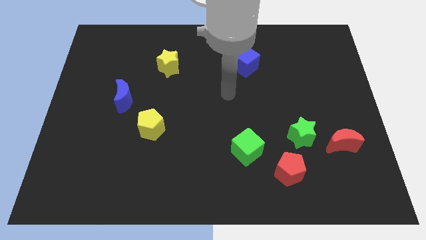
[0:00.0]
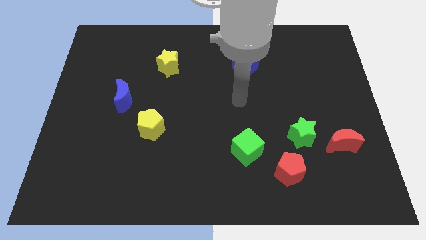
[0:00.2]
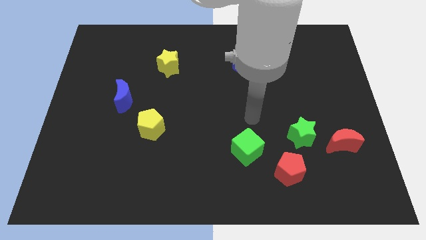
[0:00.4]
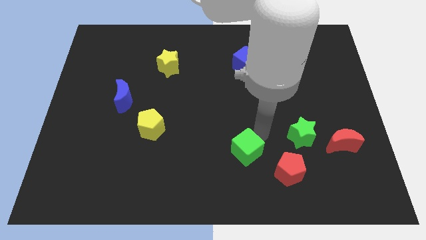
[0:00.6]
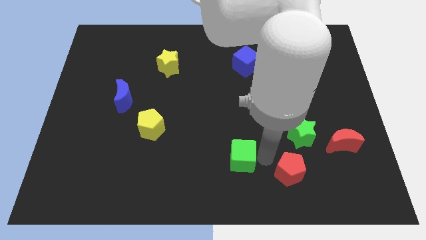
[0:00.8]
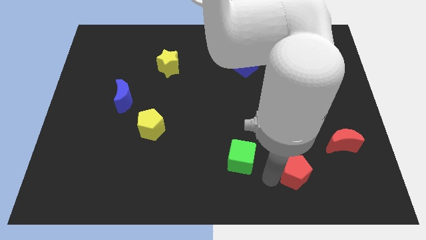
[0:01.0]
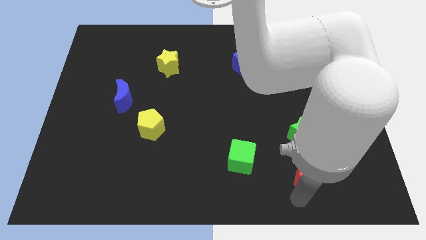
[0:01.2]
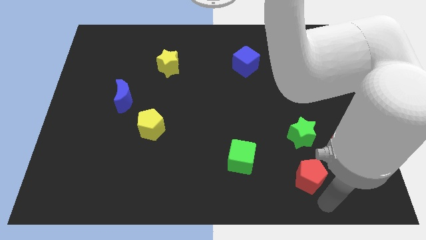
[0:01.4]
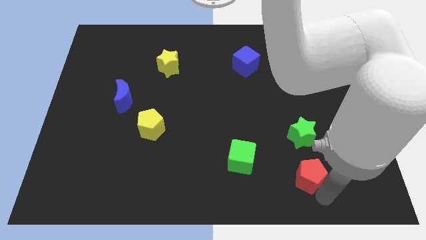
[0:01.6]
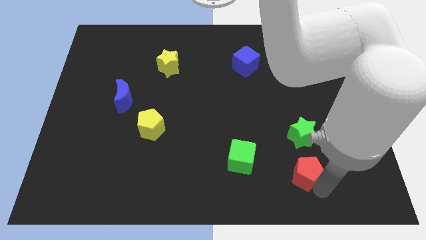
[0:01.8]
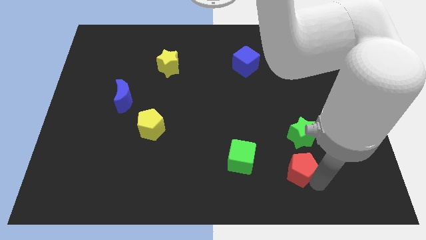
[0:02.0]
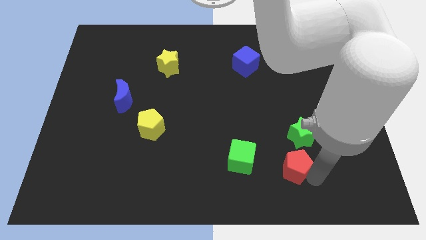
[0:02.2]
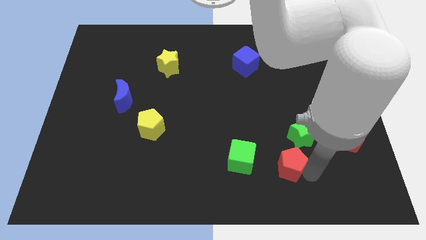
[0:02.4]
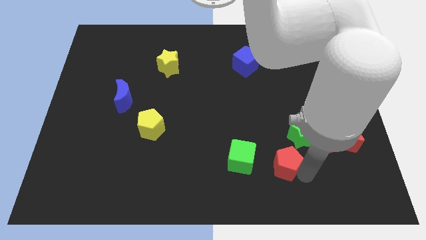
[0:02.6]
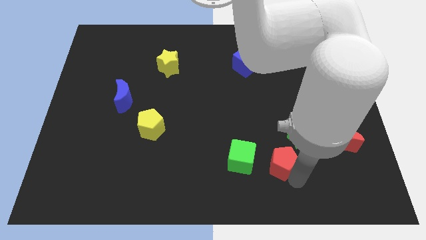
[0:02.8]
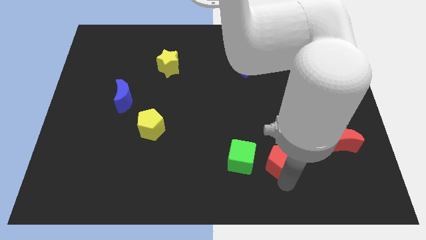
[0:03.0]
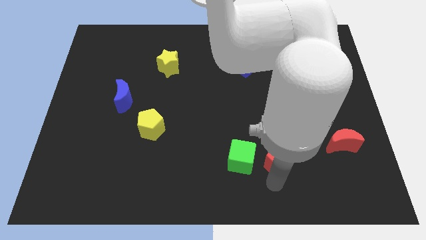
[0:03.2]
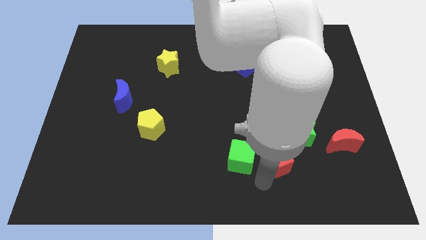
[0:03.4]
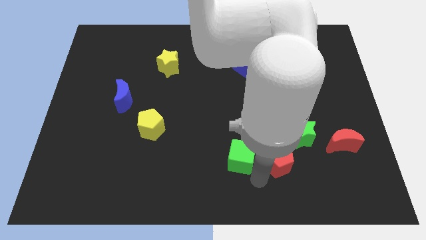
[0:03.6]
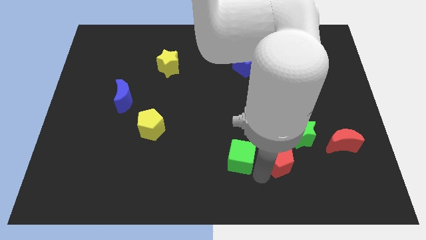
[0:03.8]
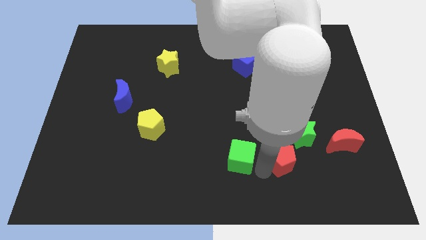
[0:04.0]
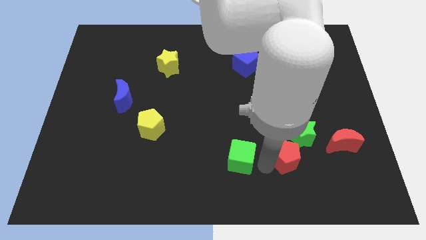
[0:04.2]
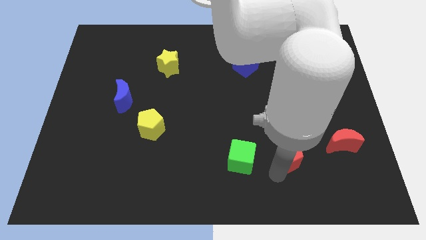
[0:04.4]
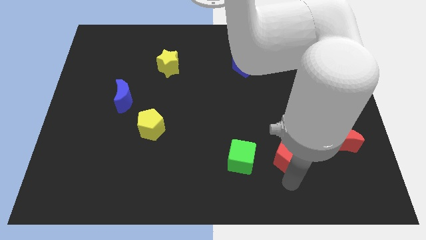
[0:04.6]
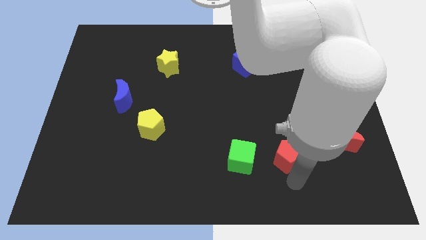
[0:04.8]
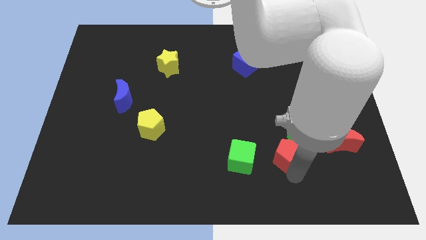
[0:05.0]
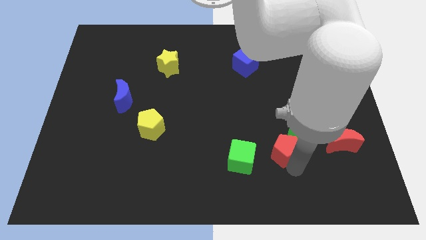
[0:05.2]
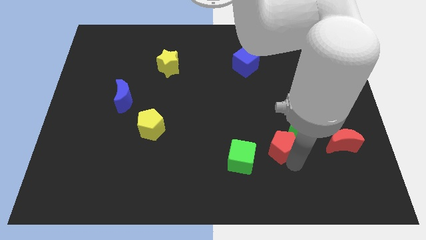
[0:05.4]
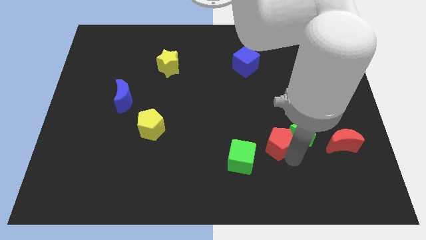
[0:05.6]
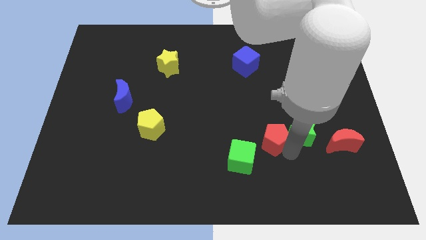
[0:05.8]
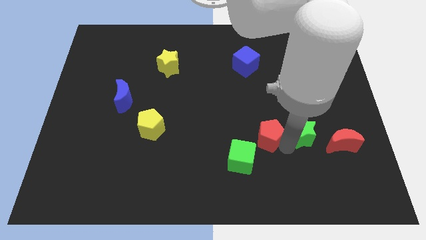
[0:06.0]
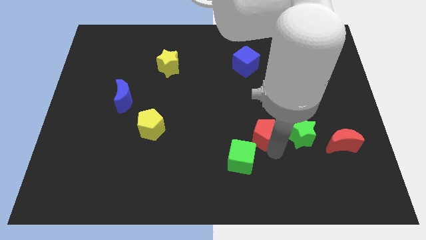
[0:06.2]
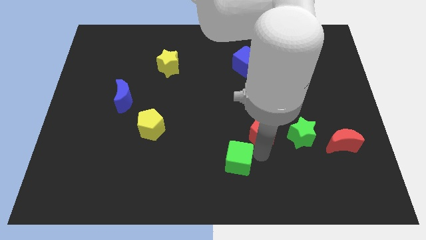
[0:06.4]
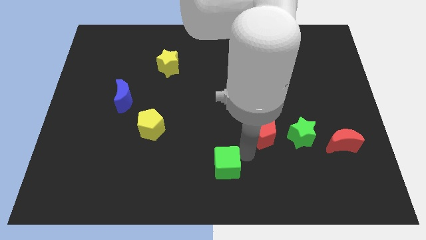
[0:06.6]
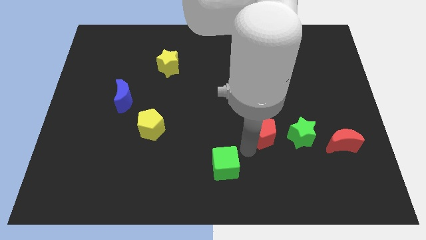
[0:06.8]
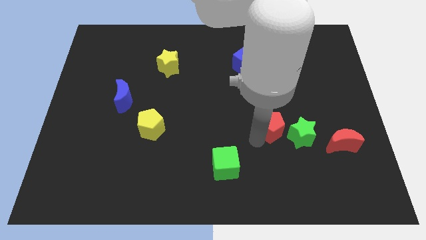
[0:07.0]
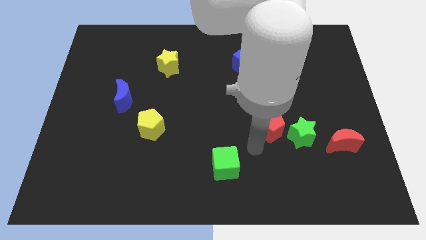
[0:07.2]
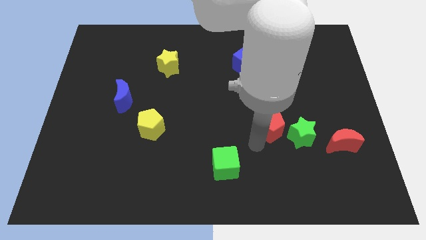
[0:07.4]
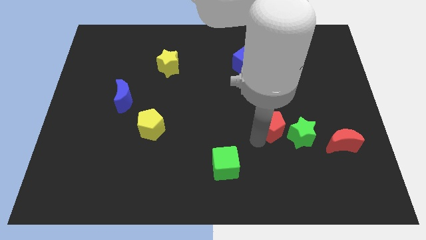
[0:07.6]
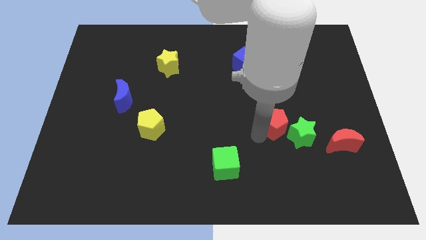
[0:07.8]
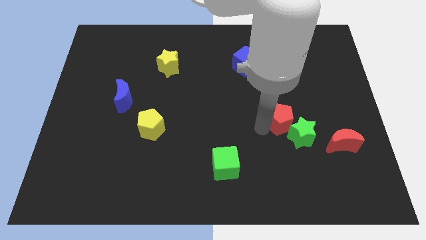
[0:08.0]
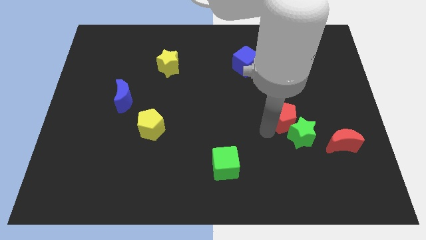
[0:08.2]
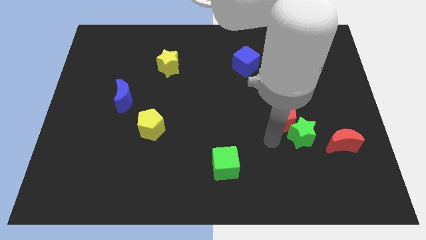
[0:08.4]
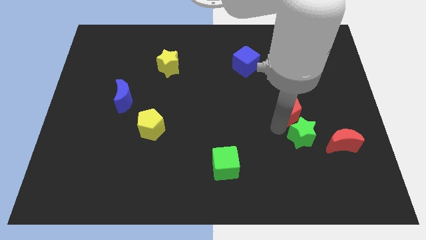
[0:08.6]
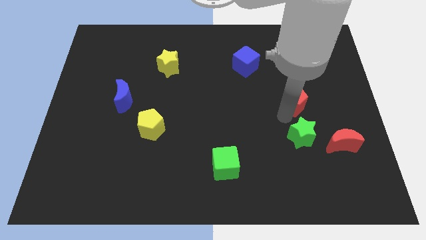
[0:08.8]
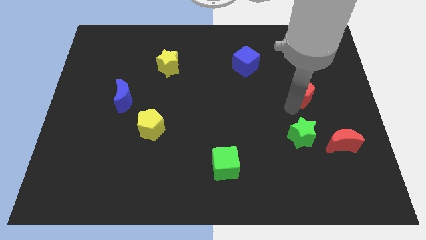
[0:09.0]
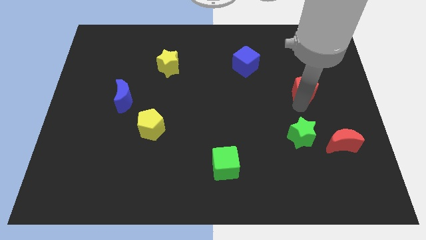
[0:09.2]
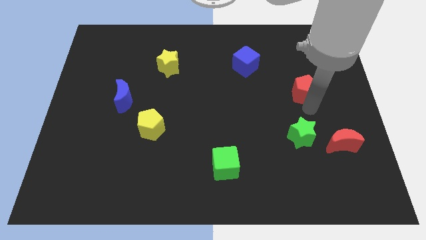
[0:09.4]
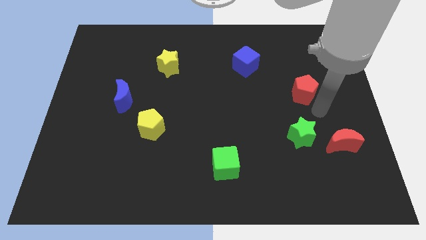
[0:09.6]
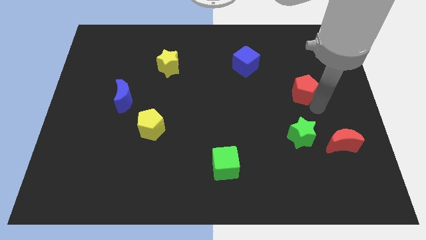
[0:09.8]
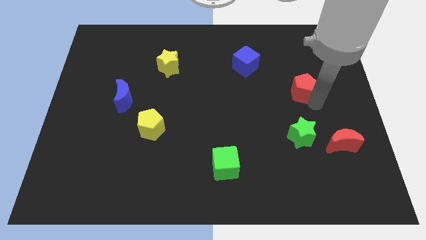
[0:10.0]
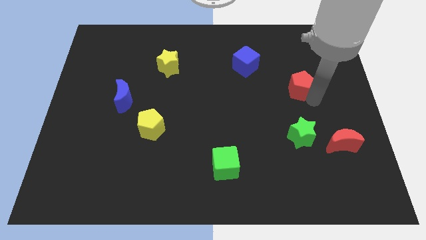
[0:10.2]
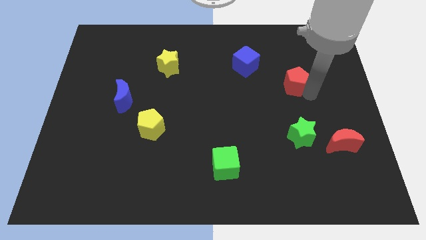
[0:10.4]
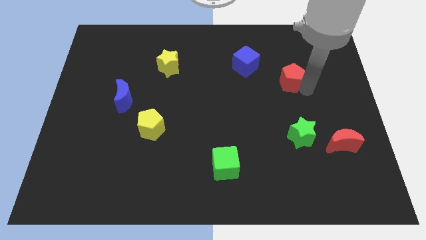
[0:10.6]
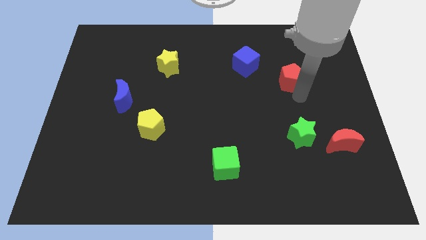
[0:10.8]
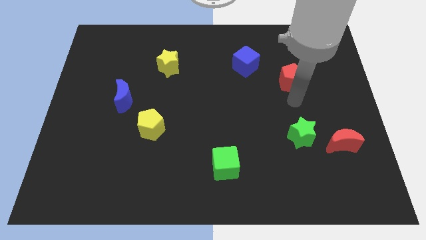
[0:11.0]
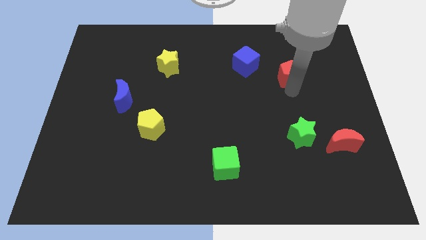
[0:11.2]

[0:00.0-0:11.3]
move the red pentagon just right of the blue cube

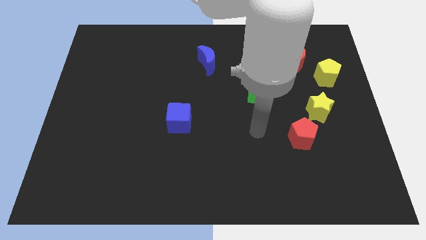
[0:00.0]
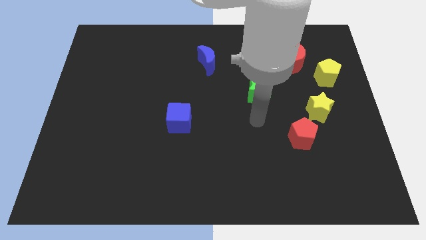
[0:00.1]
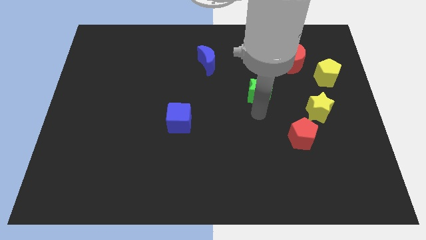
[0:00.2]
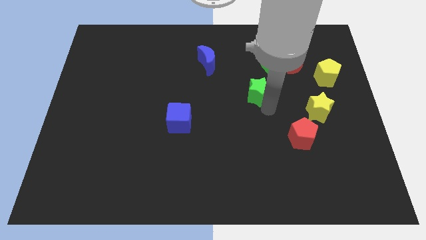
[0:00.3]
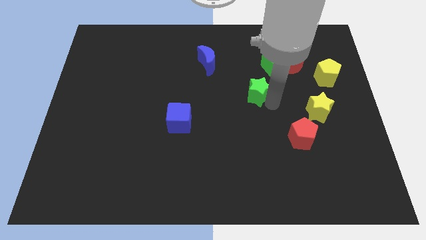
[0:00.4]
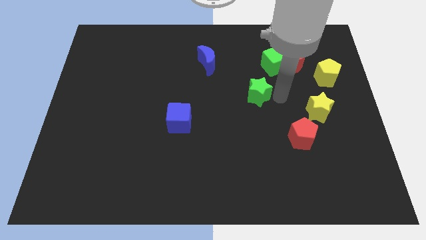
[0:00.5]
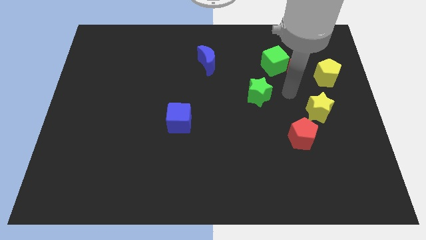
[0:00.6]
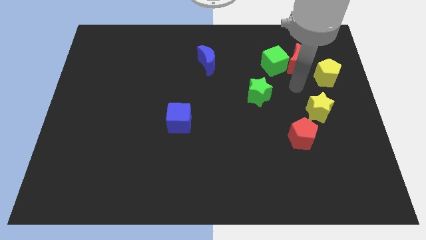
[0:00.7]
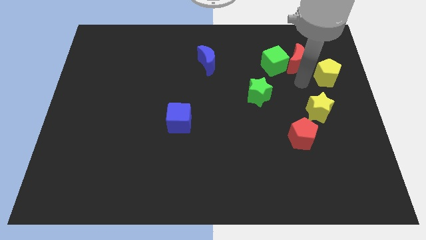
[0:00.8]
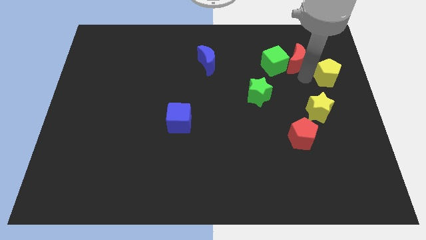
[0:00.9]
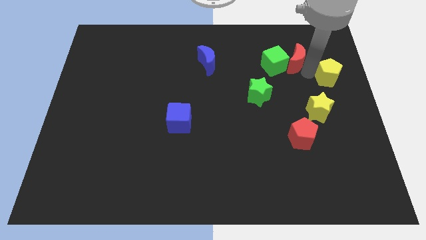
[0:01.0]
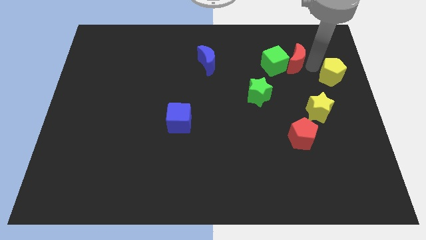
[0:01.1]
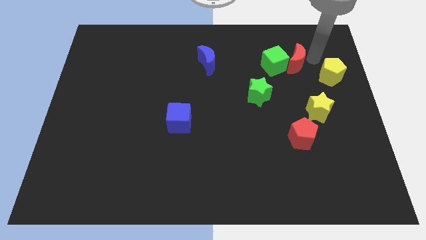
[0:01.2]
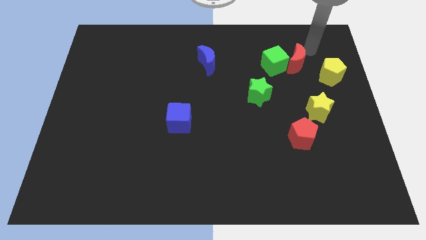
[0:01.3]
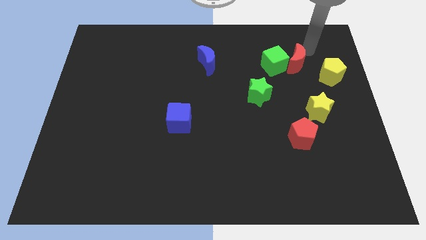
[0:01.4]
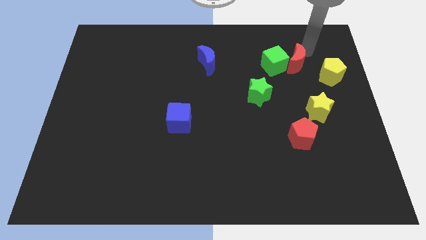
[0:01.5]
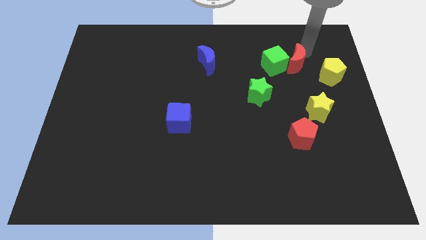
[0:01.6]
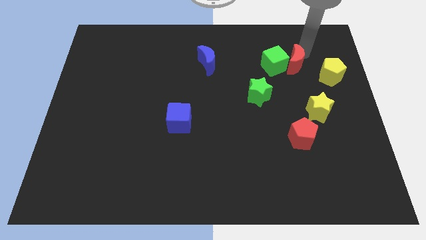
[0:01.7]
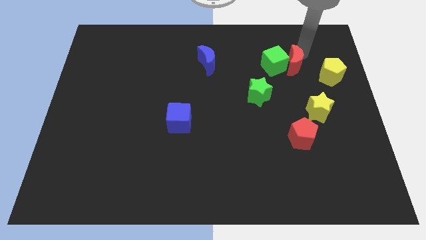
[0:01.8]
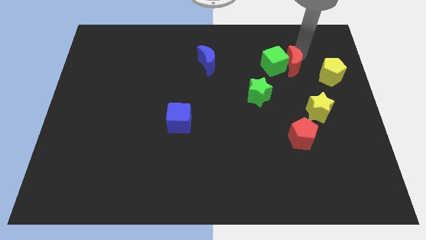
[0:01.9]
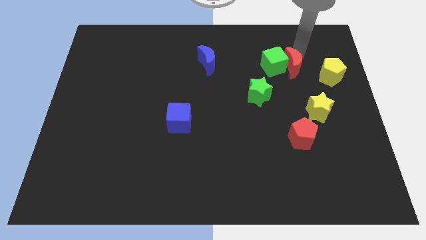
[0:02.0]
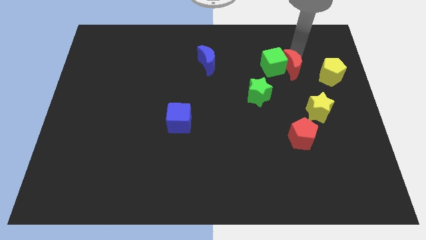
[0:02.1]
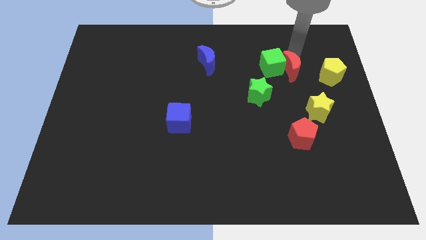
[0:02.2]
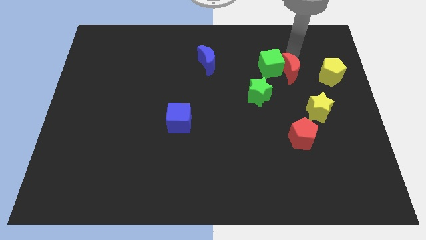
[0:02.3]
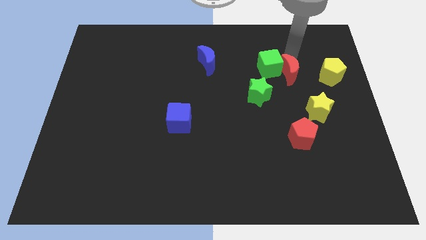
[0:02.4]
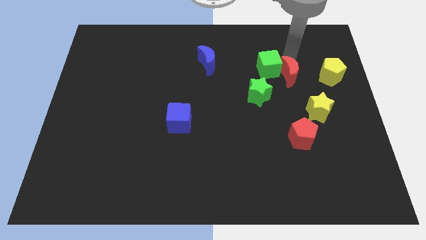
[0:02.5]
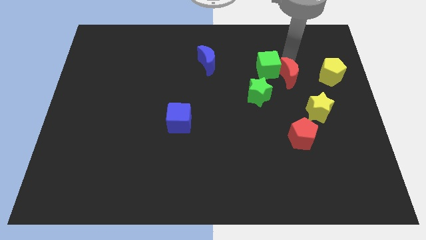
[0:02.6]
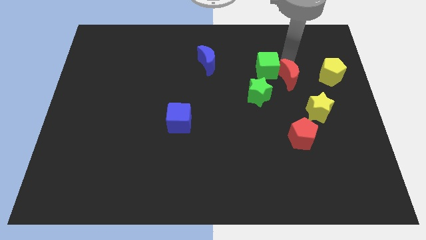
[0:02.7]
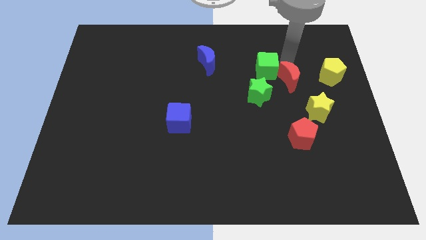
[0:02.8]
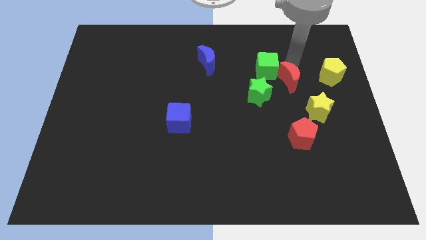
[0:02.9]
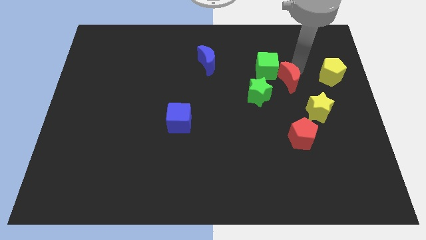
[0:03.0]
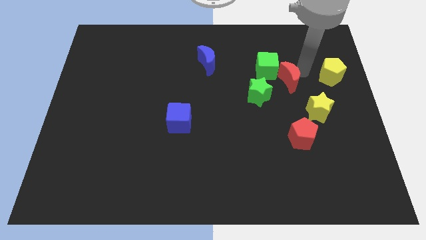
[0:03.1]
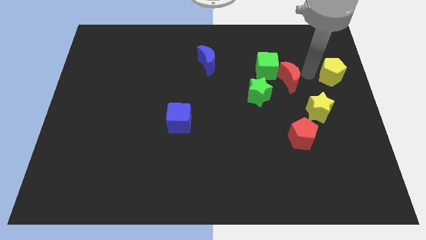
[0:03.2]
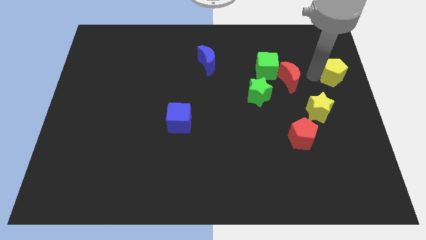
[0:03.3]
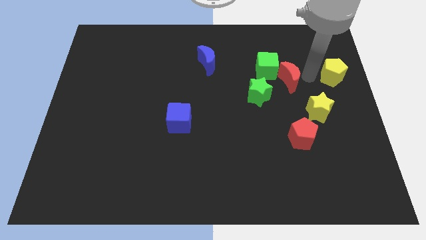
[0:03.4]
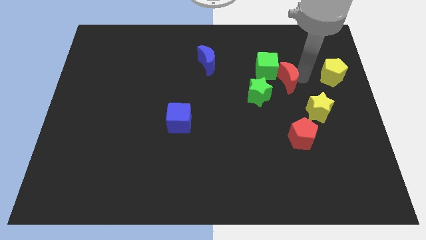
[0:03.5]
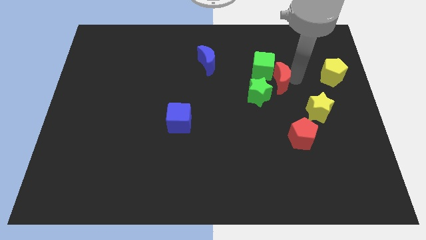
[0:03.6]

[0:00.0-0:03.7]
put the red moon to the bottom of the green cube
